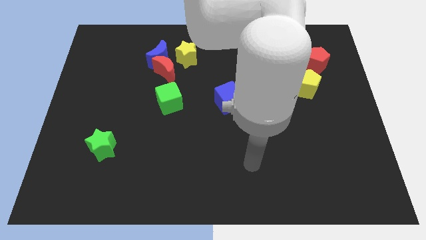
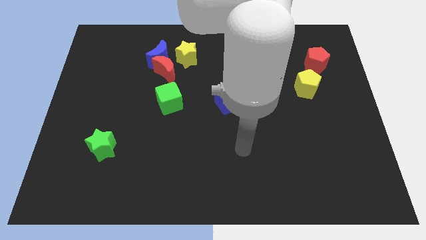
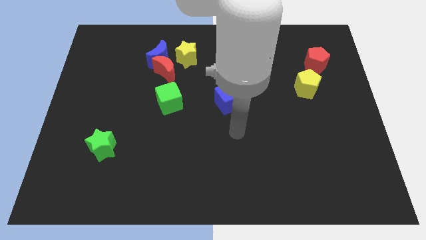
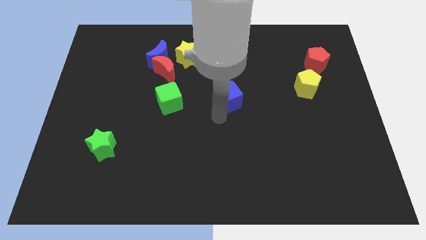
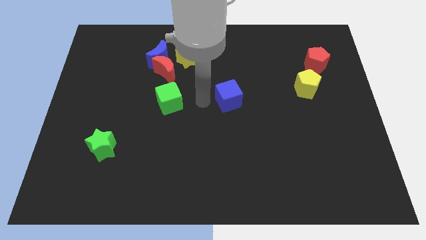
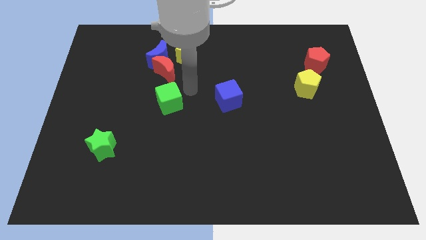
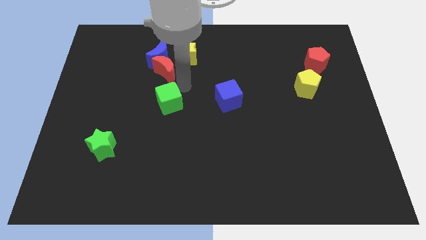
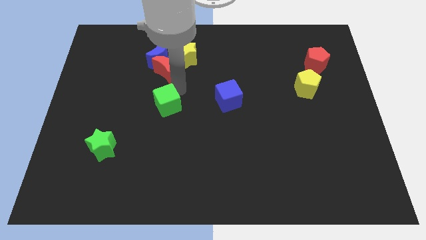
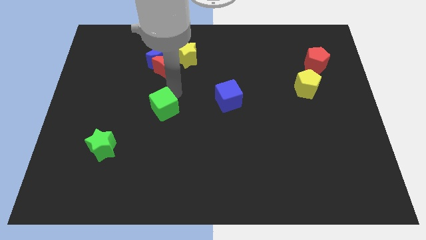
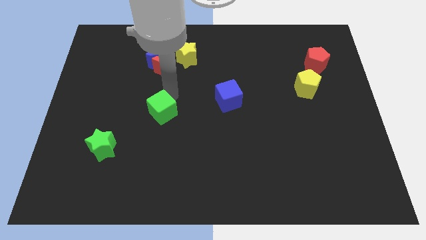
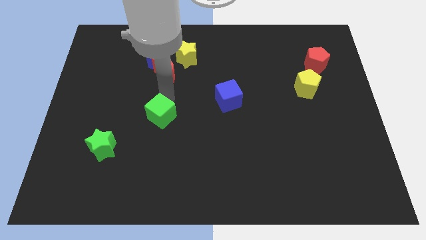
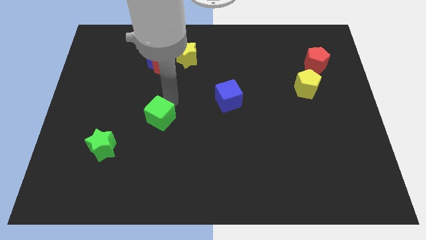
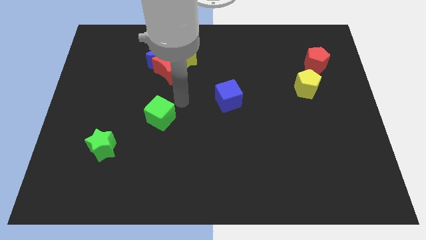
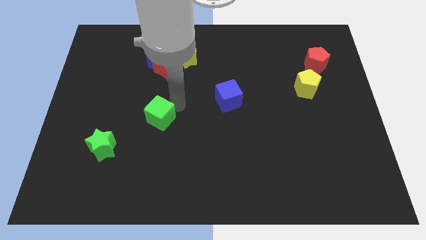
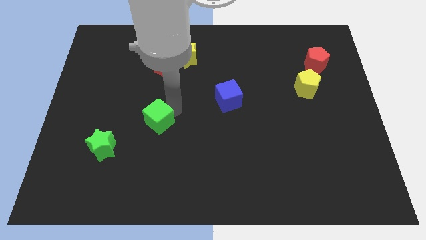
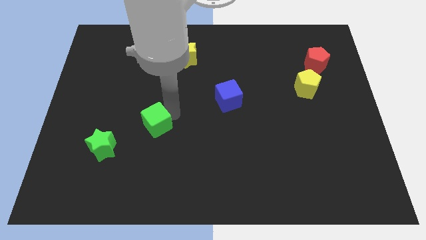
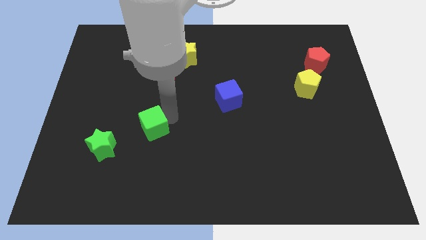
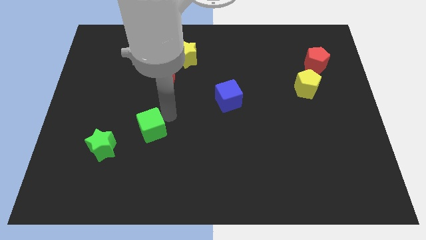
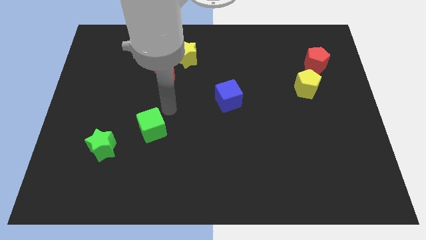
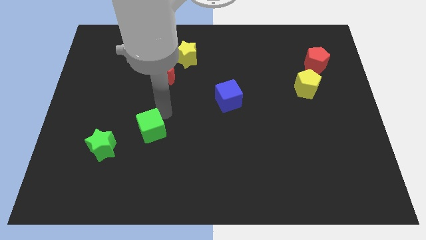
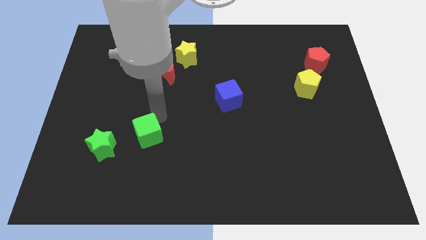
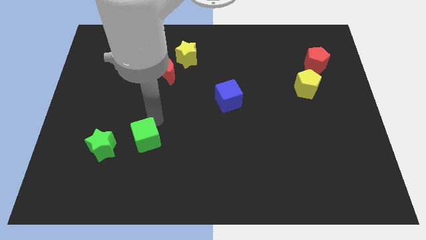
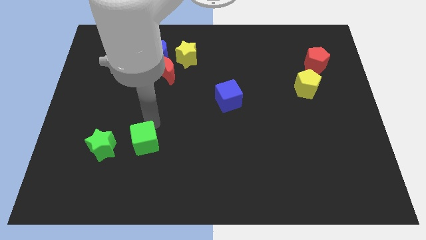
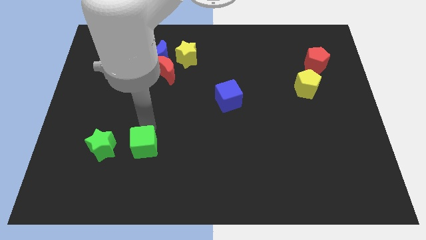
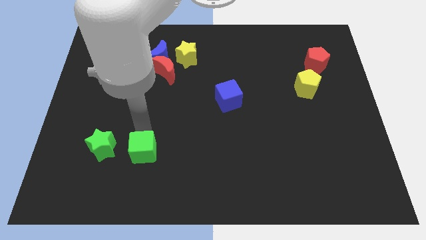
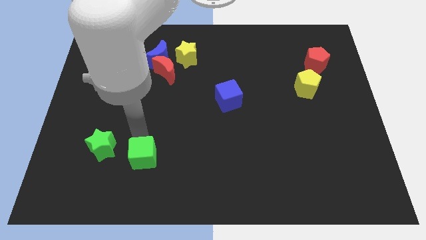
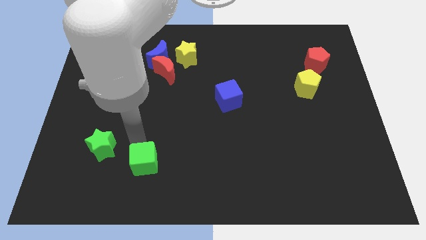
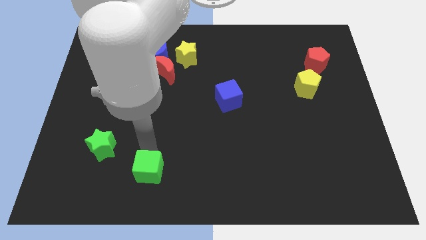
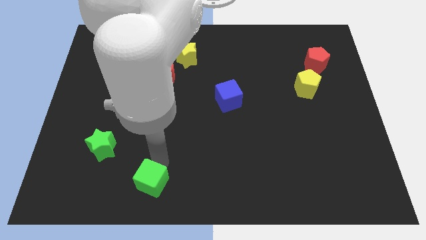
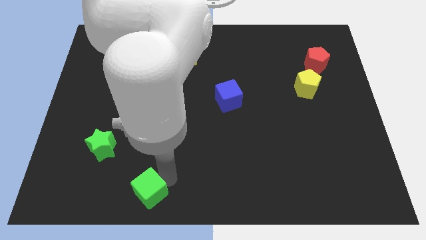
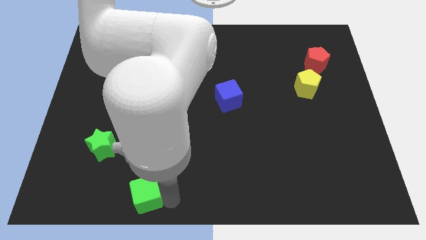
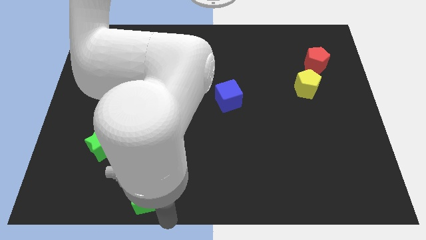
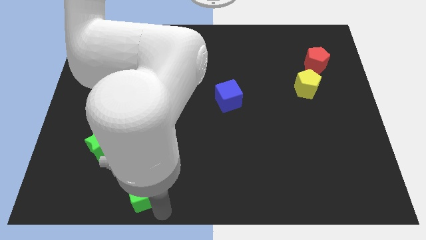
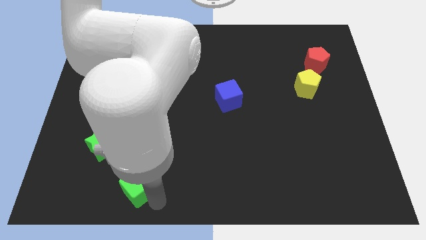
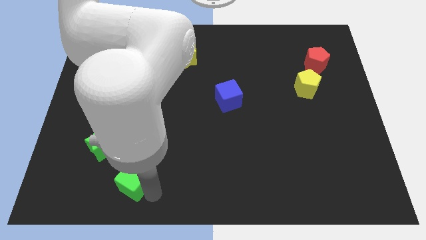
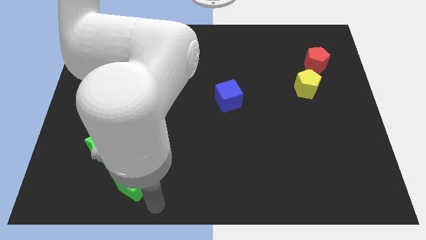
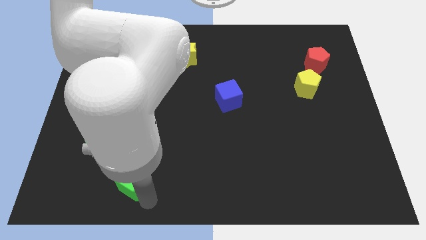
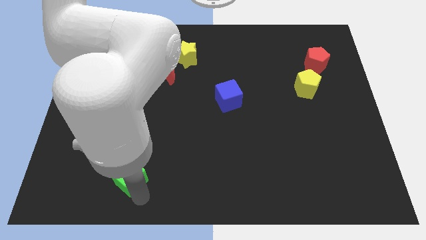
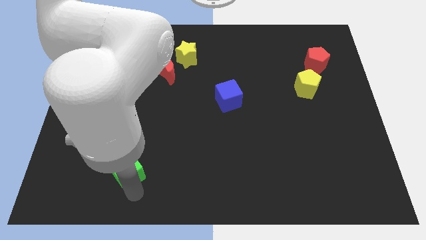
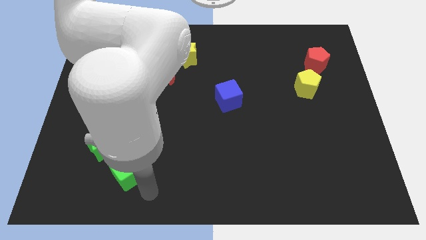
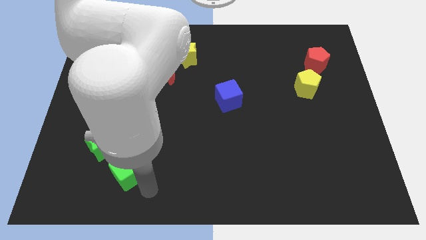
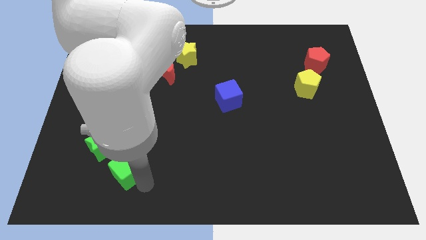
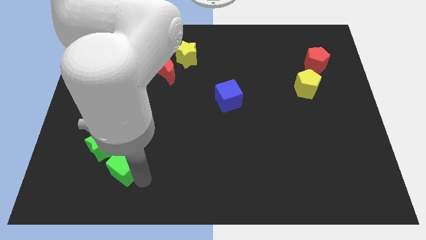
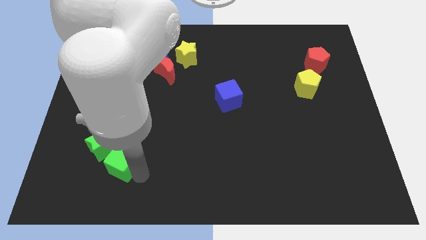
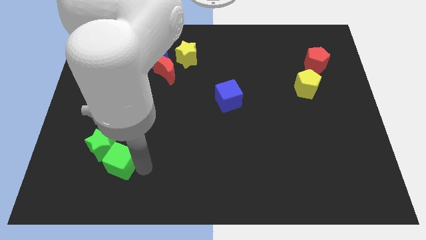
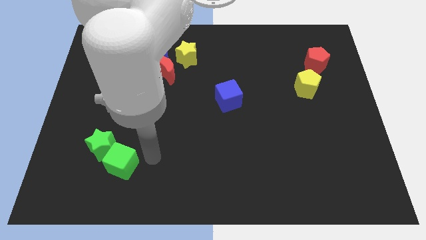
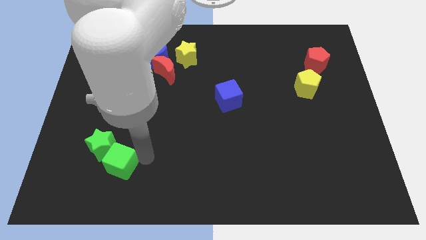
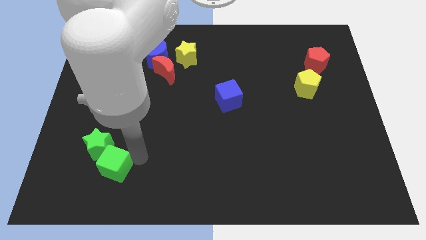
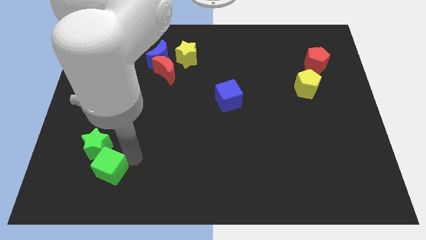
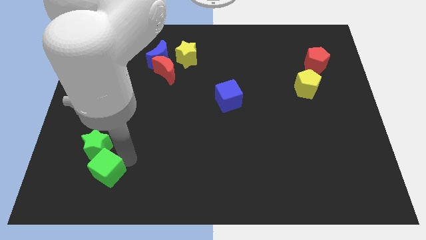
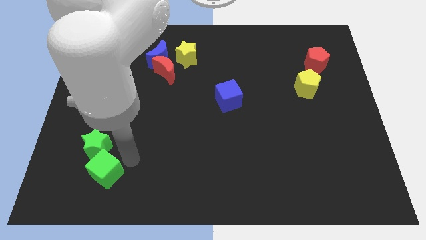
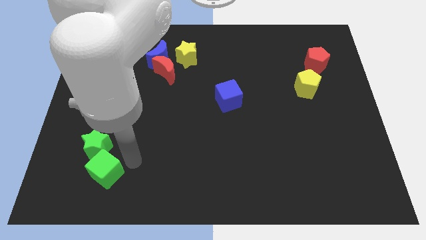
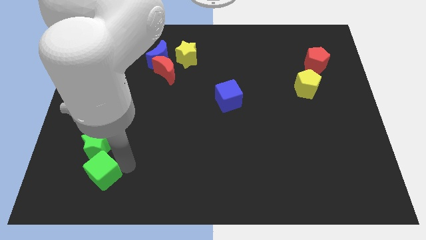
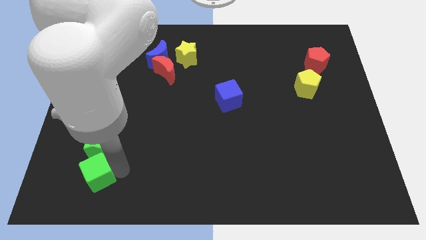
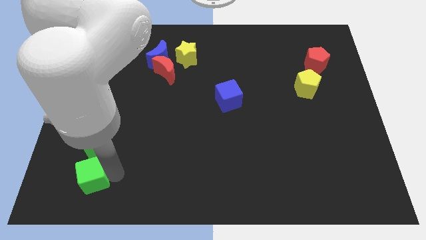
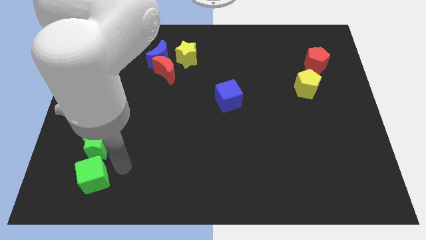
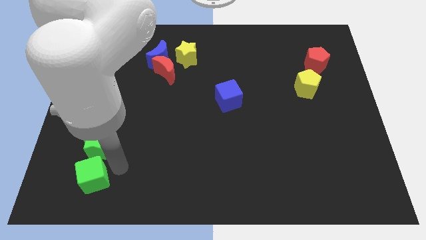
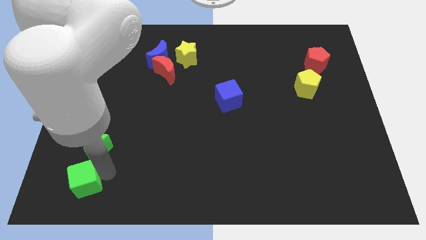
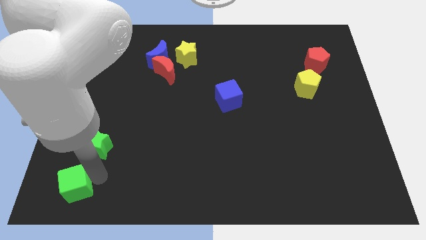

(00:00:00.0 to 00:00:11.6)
push the green cube to the bottom left corner
